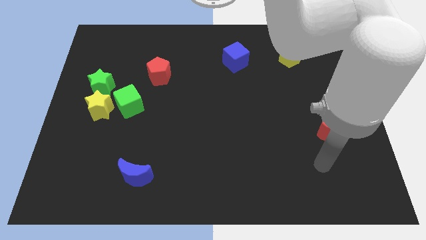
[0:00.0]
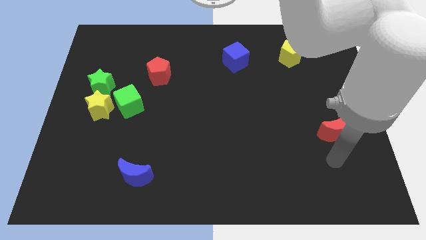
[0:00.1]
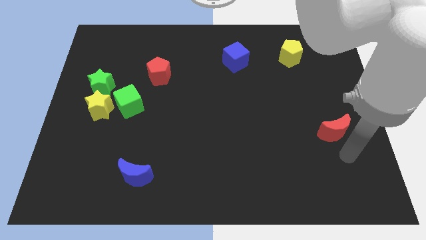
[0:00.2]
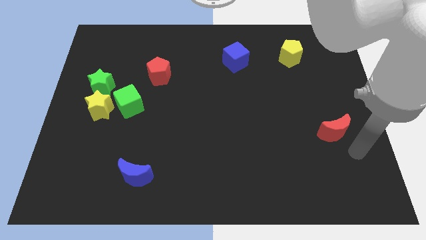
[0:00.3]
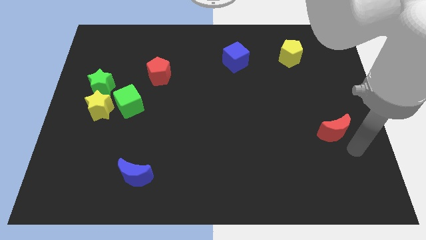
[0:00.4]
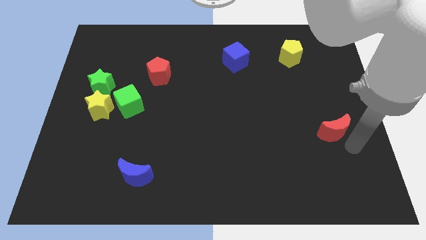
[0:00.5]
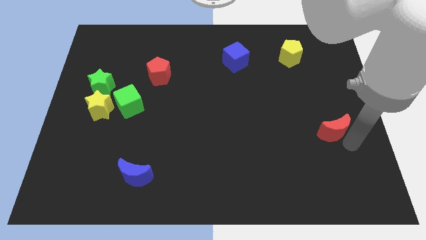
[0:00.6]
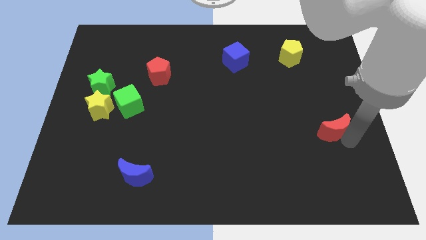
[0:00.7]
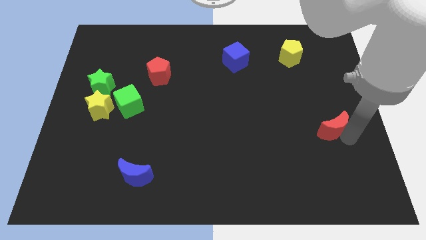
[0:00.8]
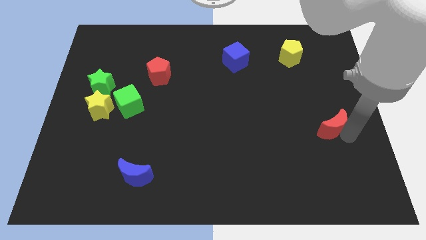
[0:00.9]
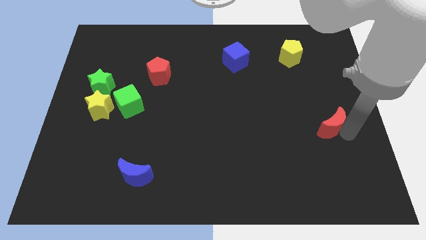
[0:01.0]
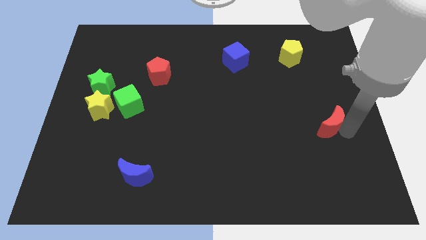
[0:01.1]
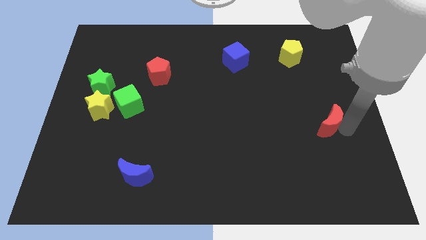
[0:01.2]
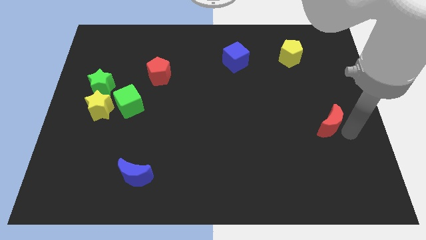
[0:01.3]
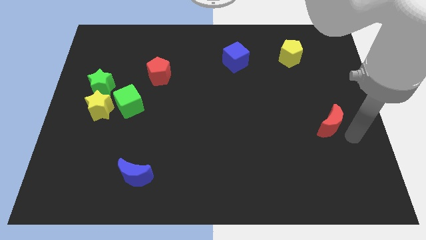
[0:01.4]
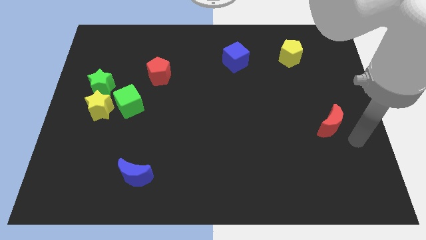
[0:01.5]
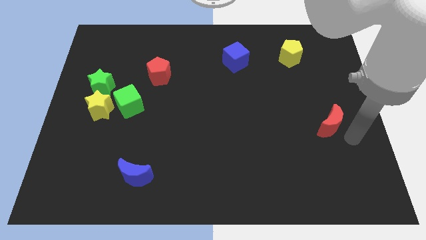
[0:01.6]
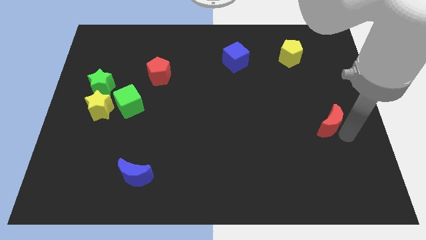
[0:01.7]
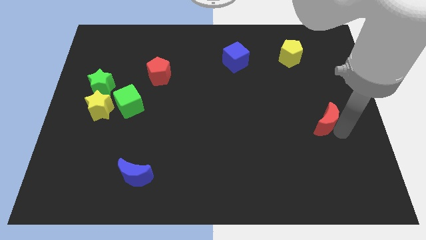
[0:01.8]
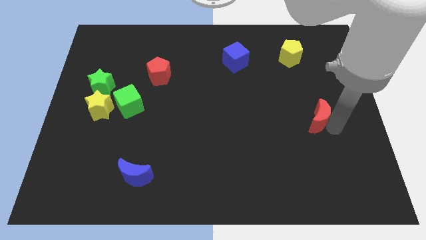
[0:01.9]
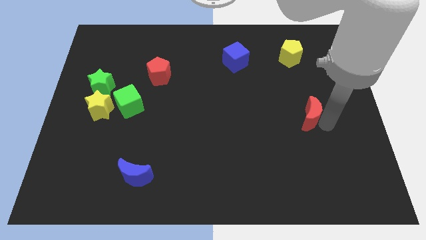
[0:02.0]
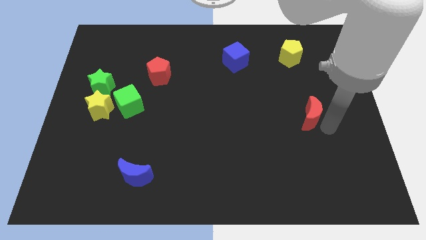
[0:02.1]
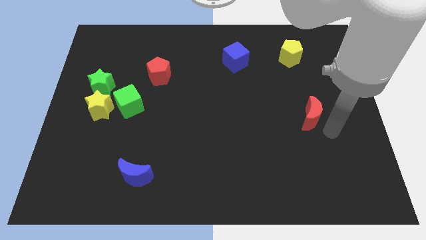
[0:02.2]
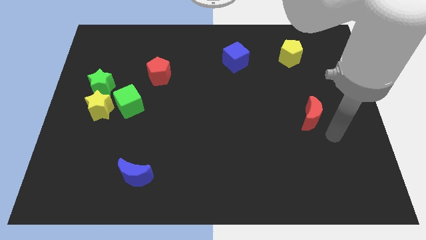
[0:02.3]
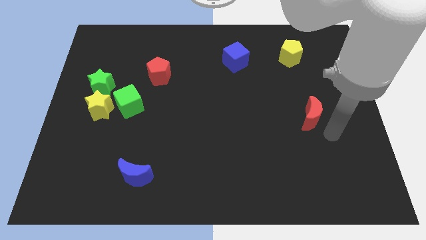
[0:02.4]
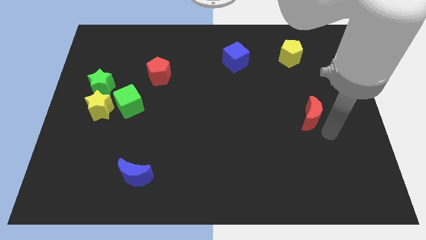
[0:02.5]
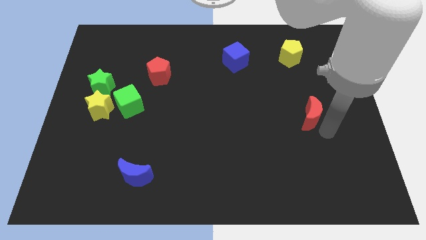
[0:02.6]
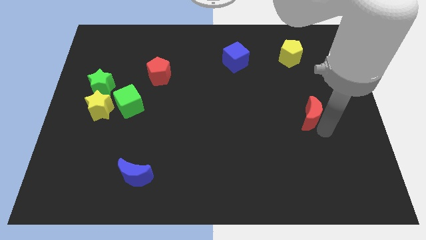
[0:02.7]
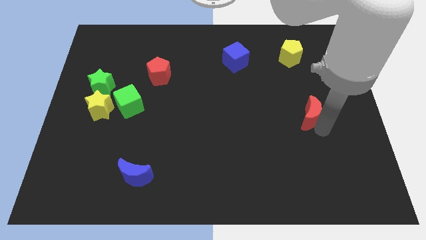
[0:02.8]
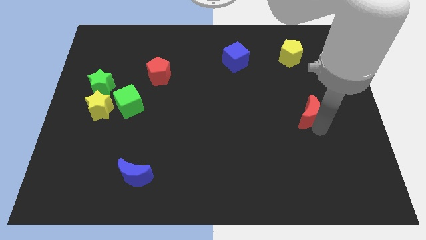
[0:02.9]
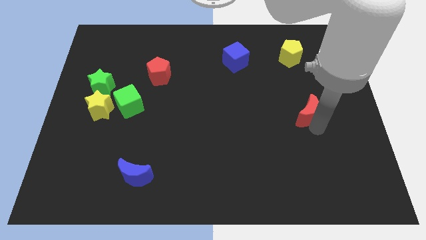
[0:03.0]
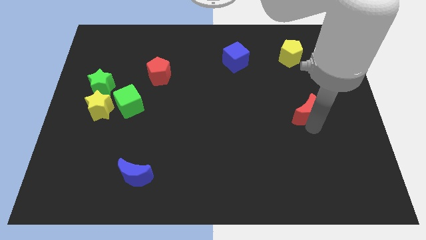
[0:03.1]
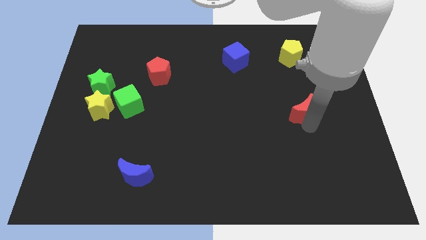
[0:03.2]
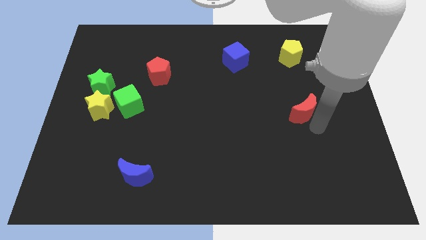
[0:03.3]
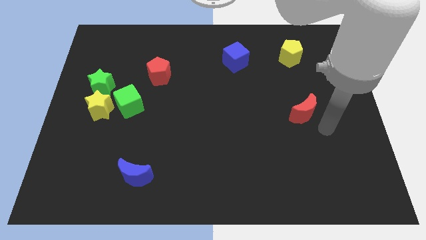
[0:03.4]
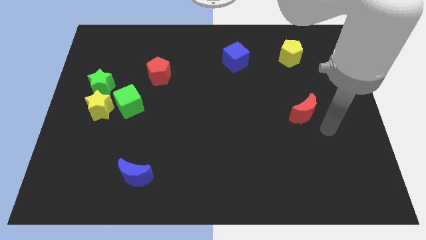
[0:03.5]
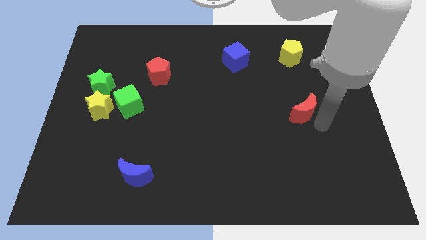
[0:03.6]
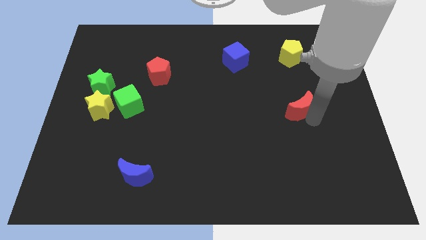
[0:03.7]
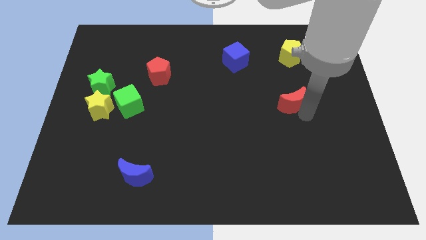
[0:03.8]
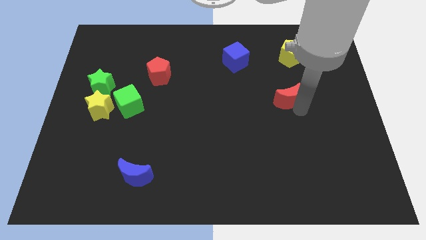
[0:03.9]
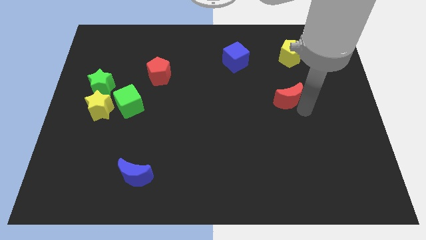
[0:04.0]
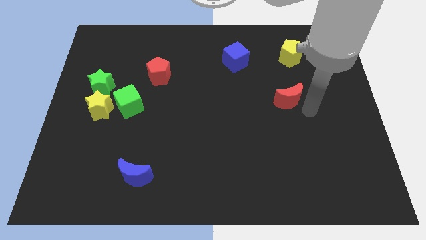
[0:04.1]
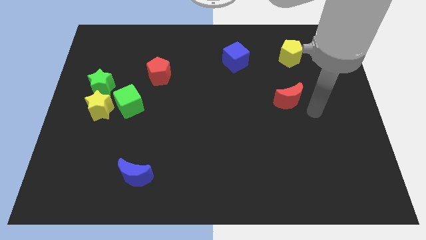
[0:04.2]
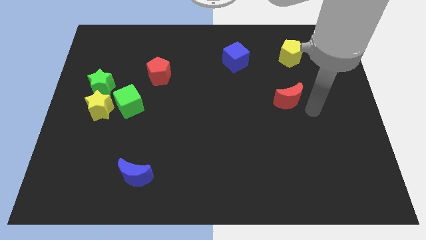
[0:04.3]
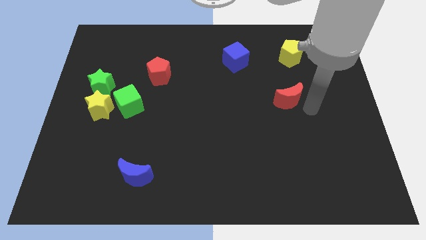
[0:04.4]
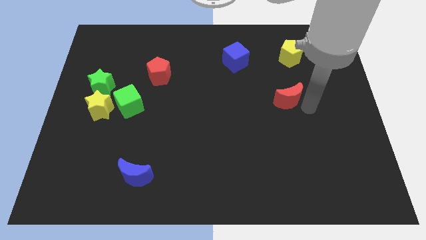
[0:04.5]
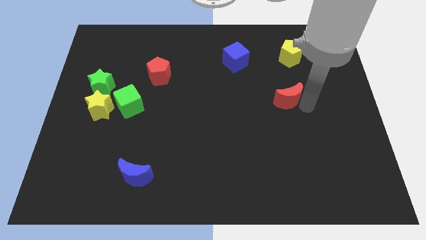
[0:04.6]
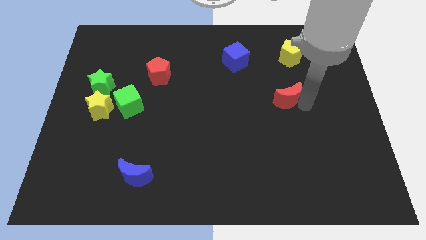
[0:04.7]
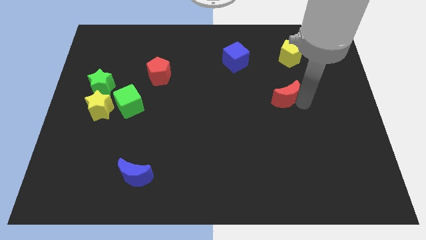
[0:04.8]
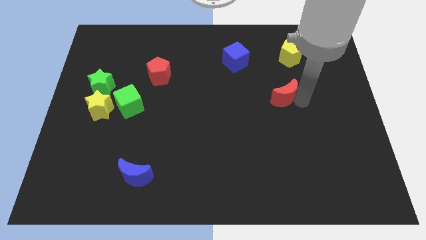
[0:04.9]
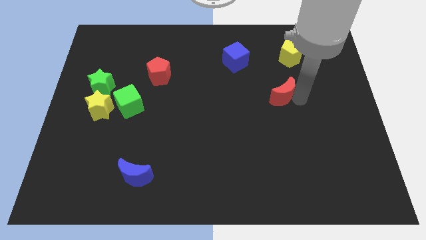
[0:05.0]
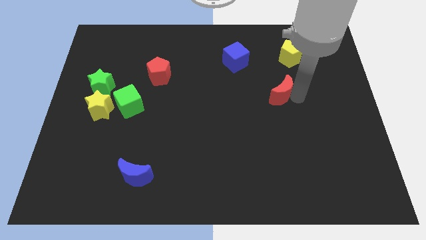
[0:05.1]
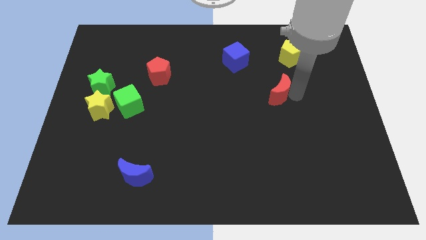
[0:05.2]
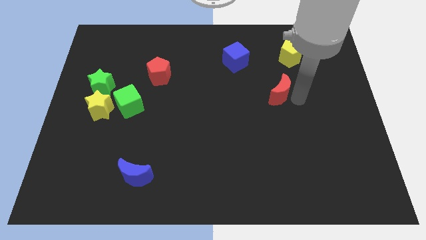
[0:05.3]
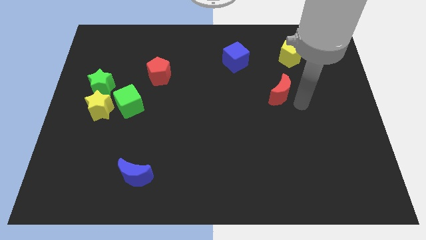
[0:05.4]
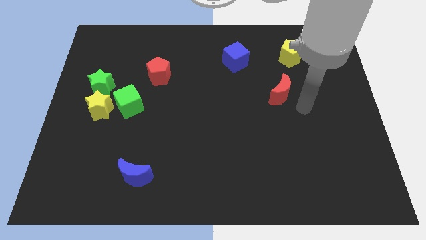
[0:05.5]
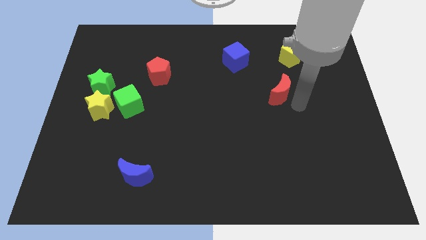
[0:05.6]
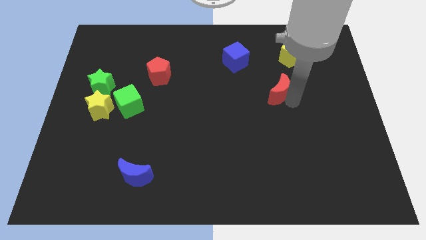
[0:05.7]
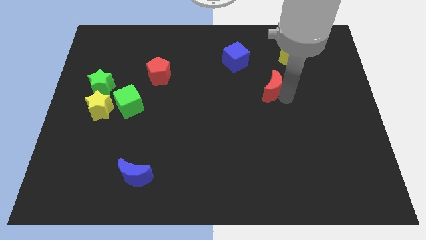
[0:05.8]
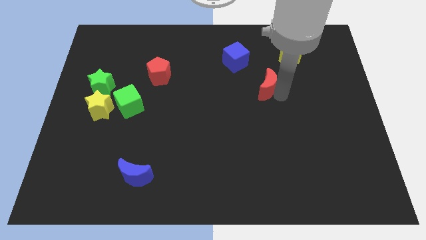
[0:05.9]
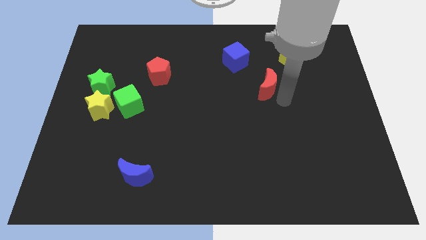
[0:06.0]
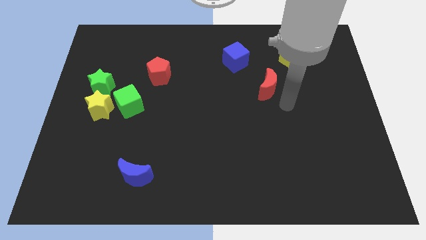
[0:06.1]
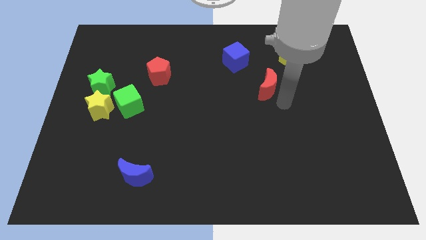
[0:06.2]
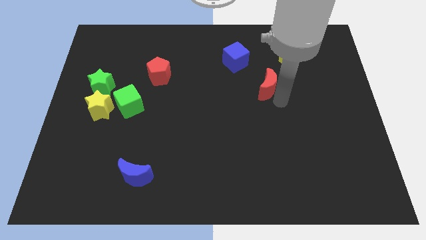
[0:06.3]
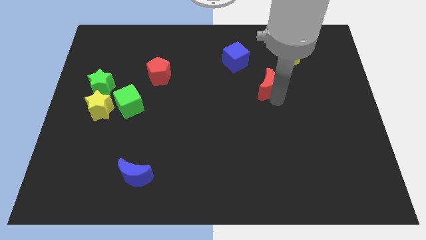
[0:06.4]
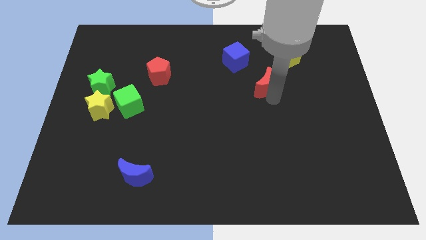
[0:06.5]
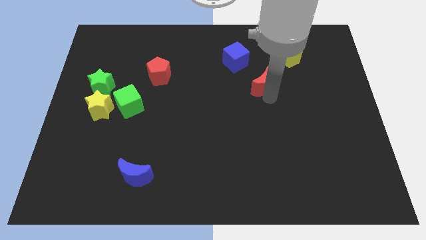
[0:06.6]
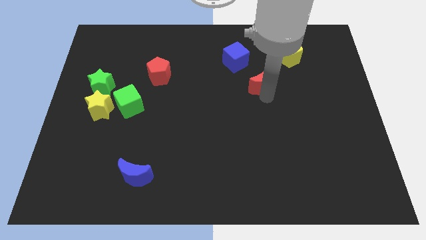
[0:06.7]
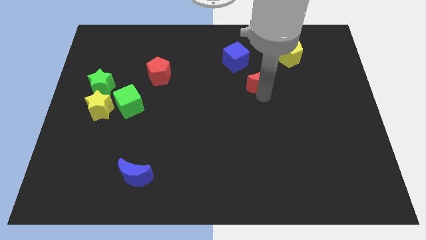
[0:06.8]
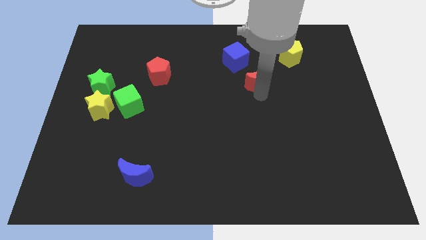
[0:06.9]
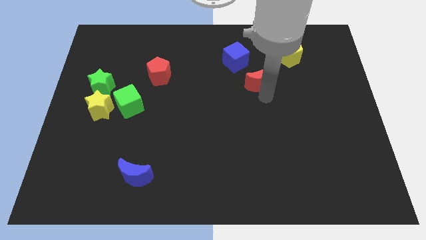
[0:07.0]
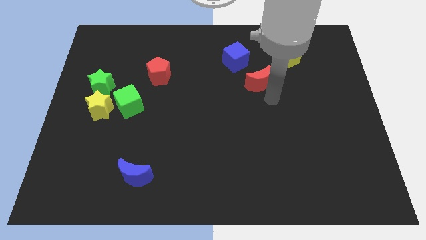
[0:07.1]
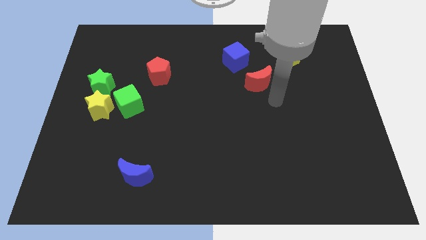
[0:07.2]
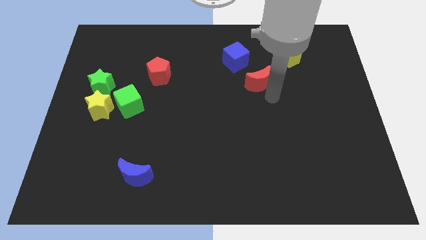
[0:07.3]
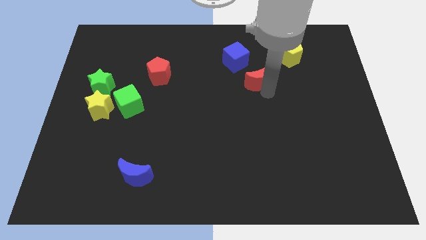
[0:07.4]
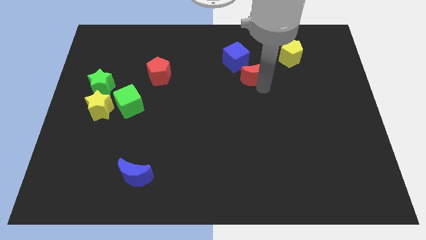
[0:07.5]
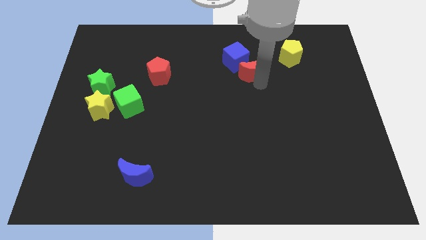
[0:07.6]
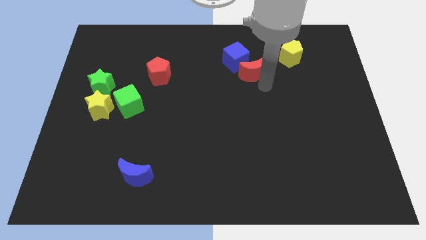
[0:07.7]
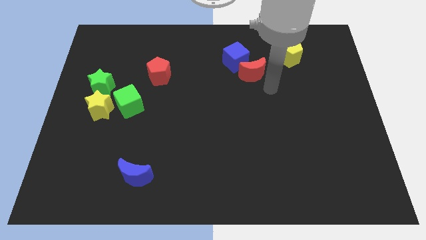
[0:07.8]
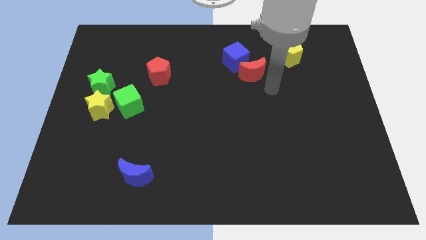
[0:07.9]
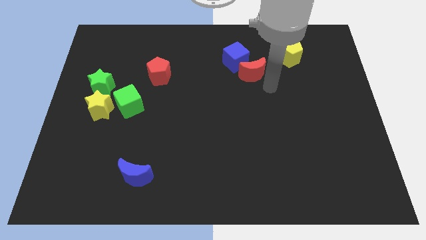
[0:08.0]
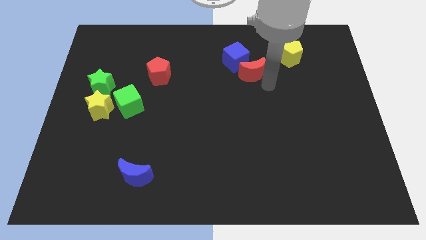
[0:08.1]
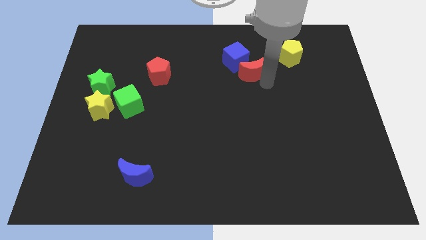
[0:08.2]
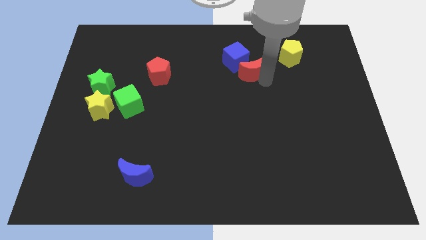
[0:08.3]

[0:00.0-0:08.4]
slide the red moon next to the blue cube
